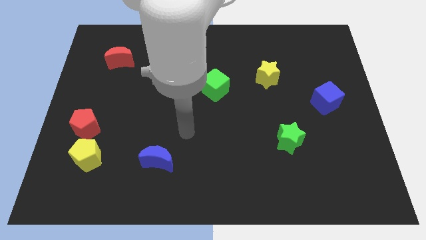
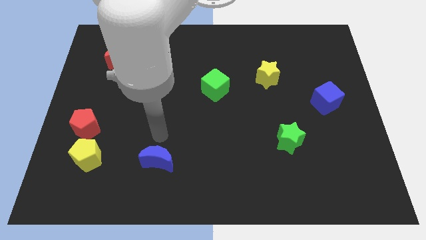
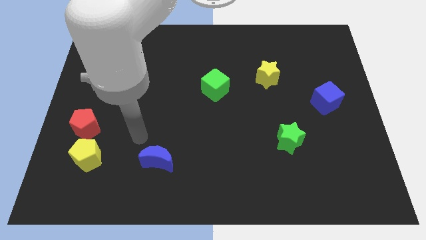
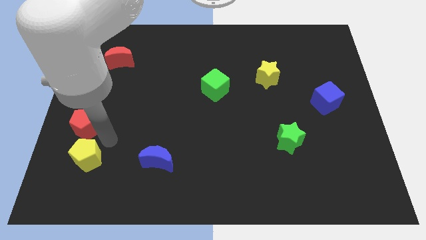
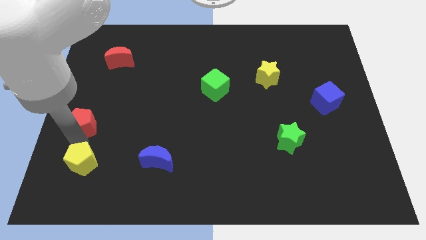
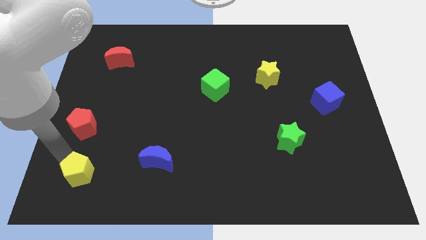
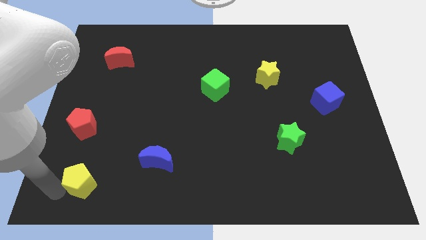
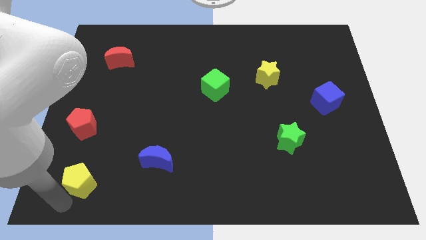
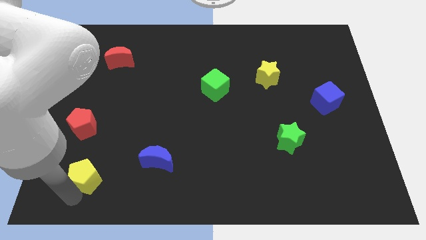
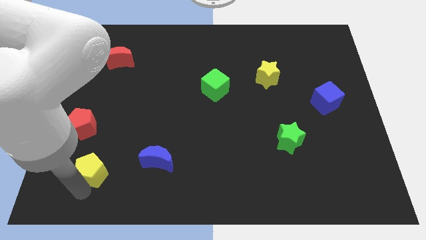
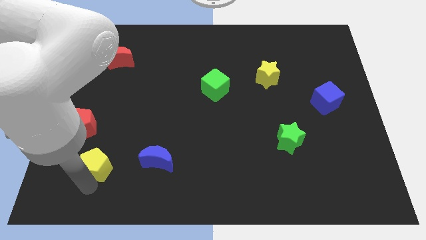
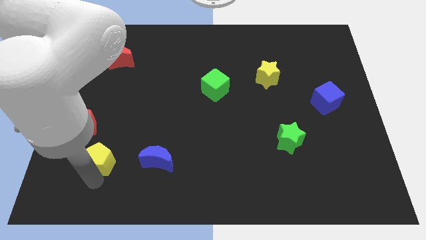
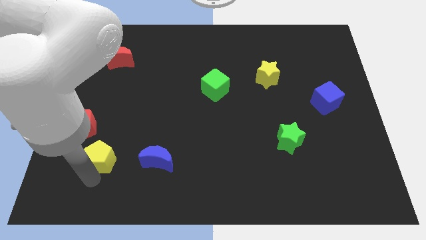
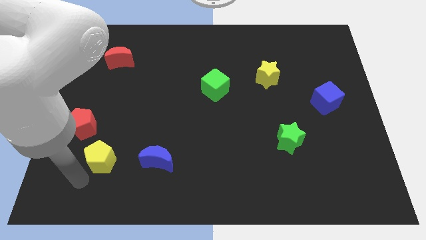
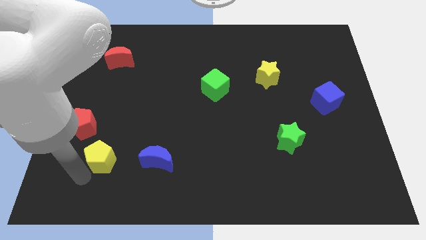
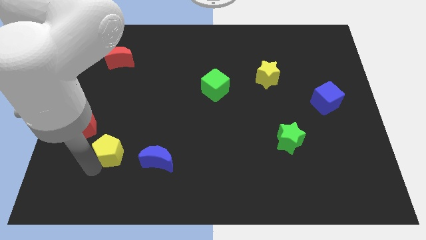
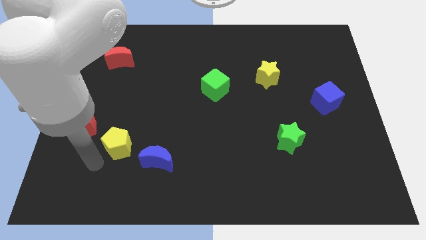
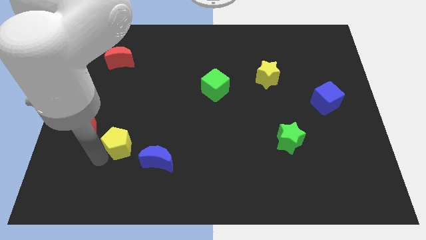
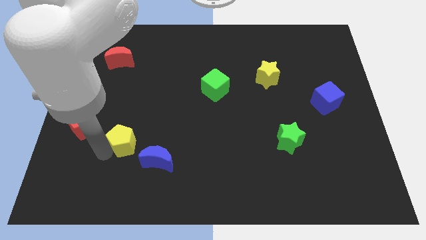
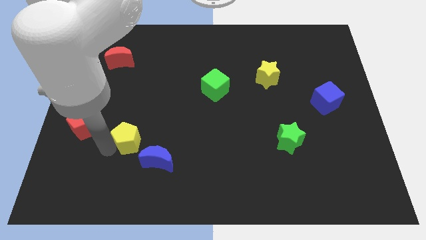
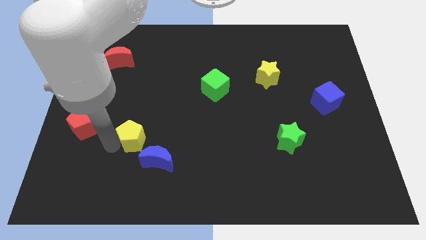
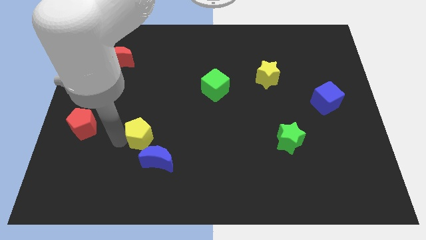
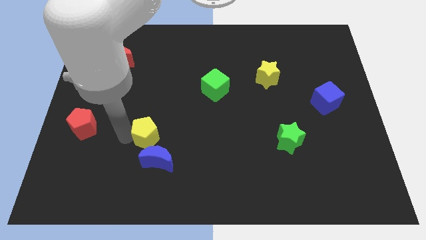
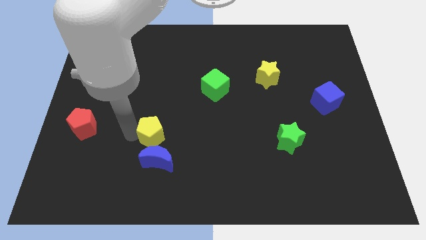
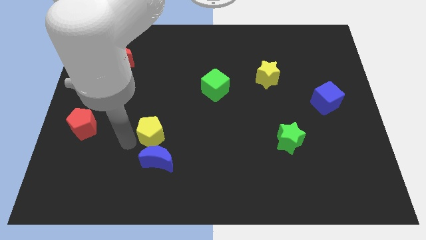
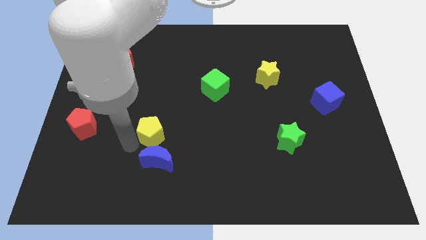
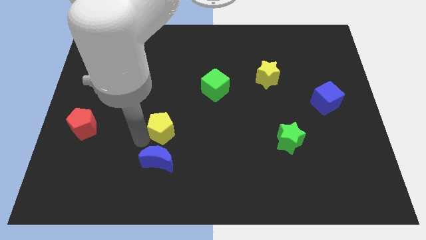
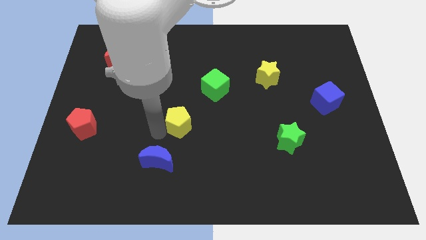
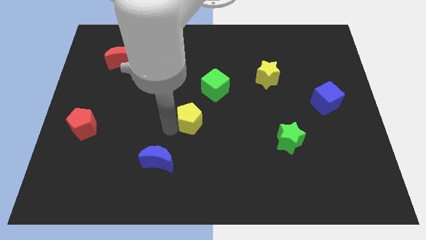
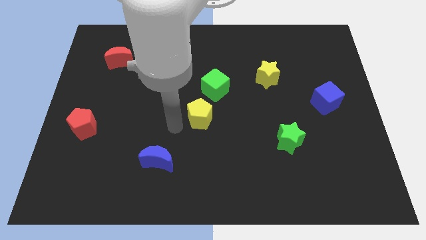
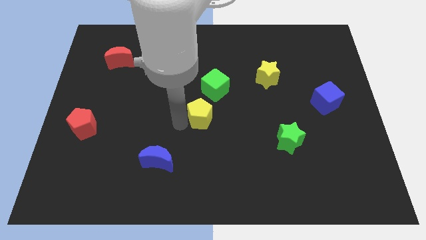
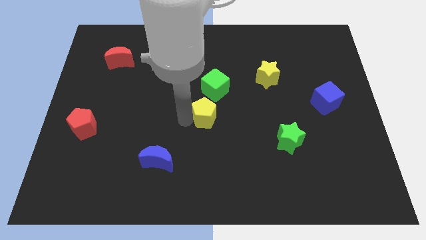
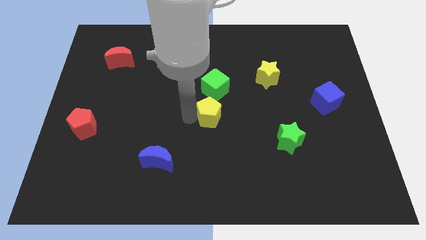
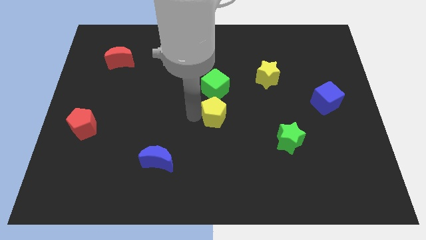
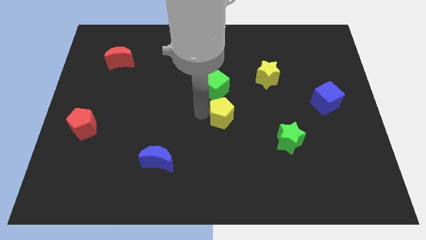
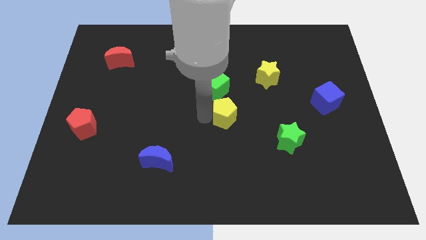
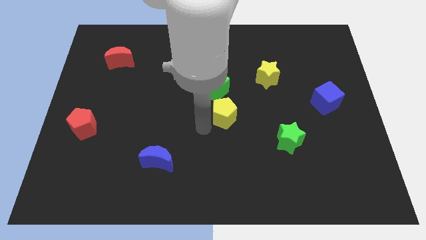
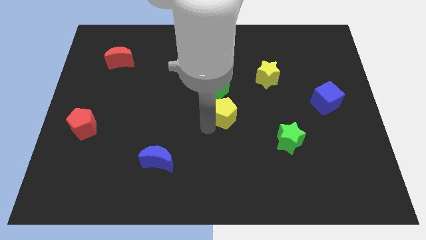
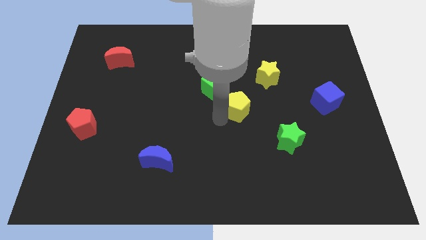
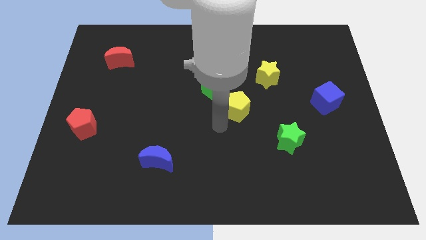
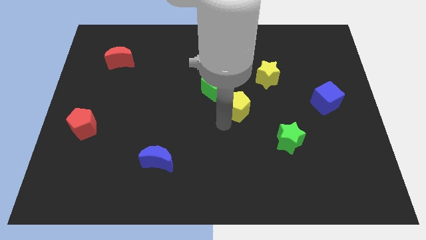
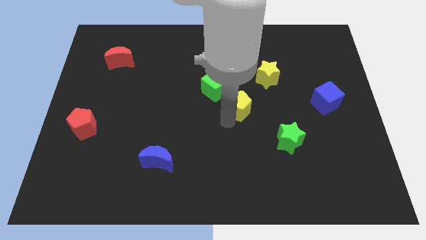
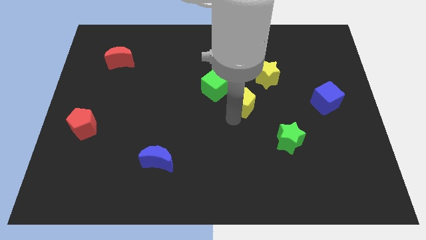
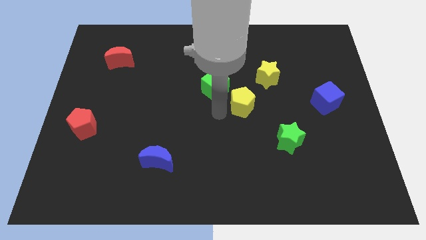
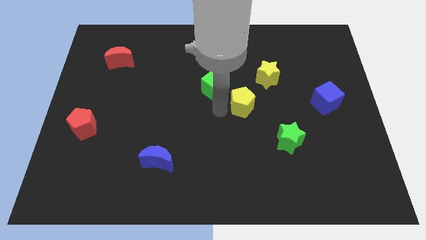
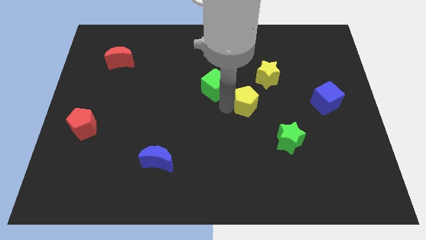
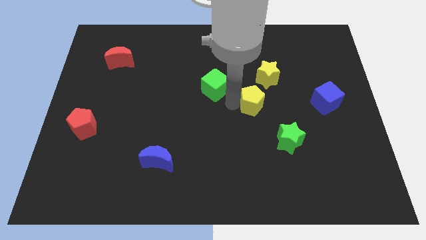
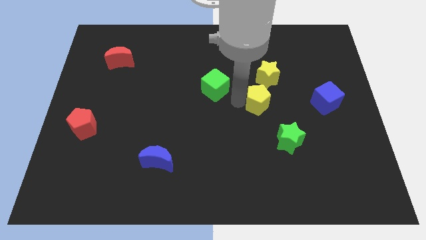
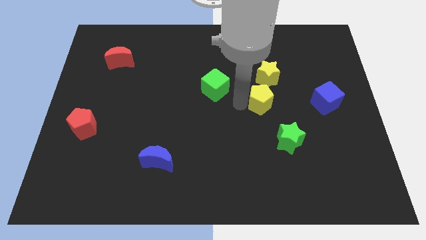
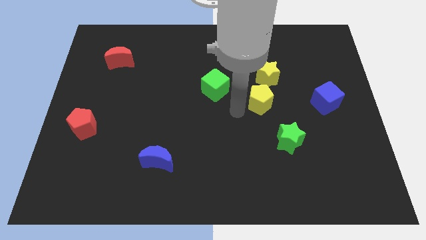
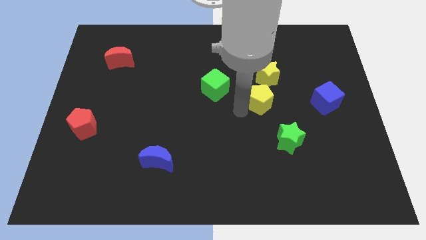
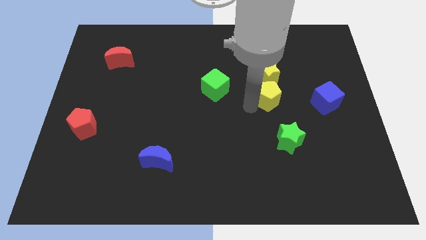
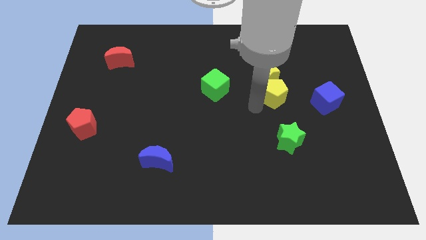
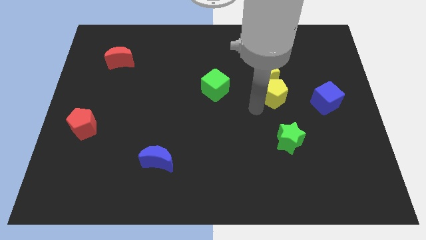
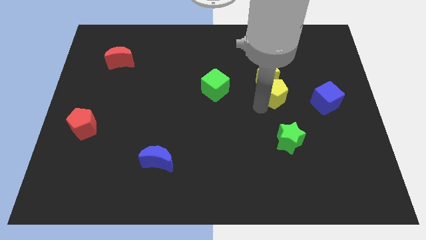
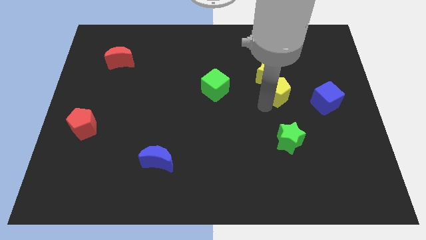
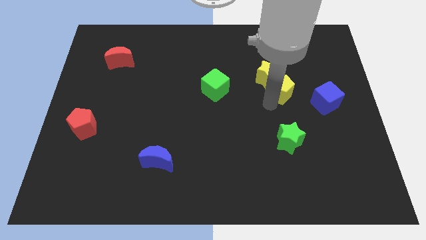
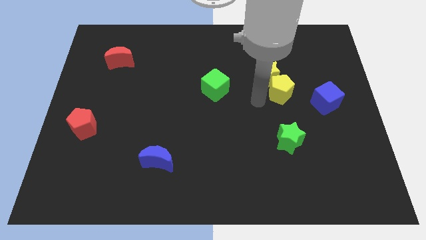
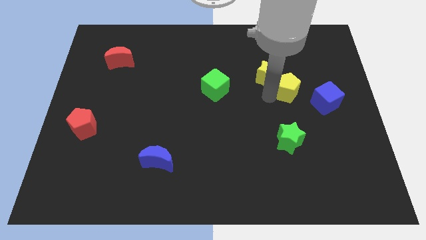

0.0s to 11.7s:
push the yellow pentagon to the top left of the blue cube

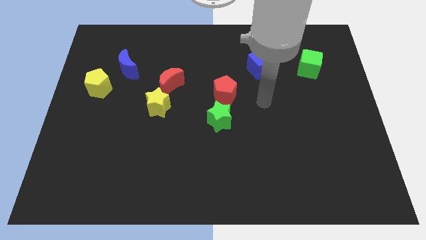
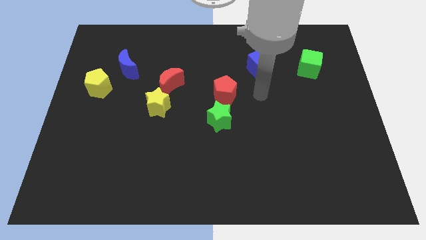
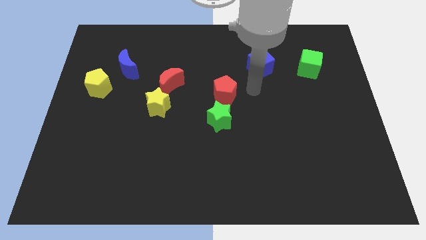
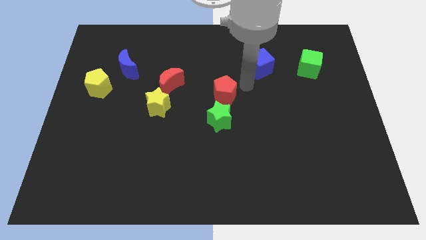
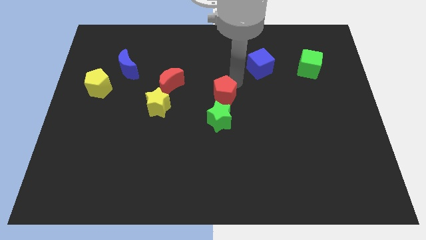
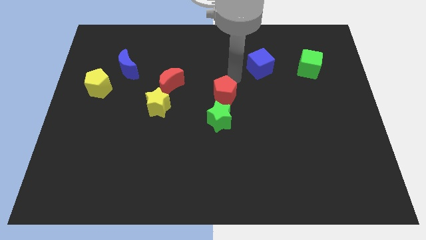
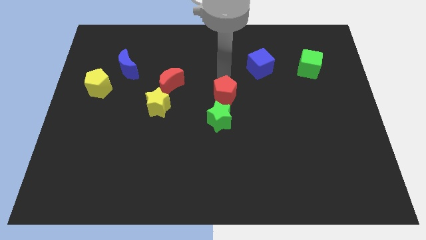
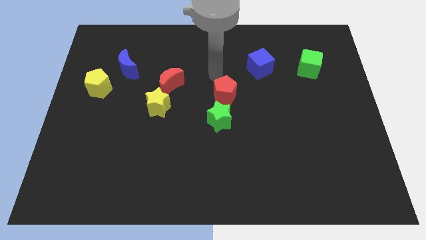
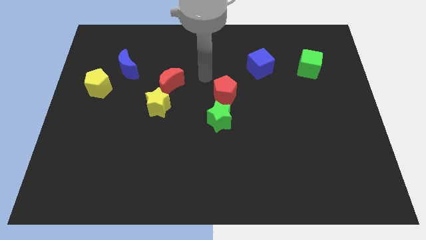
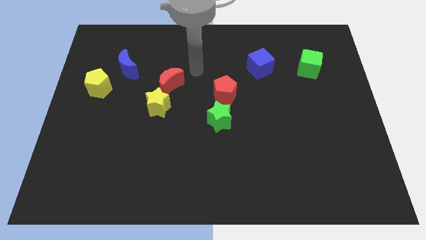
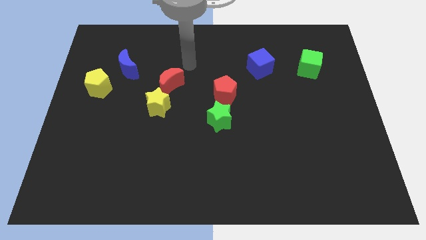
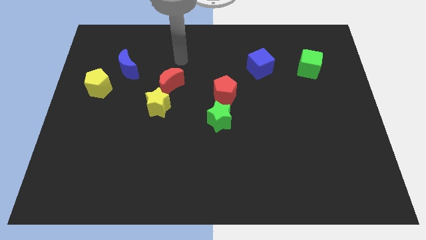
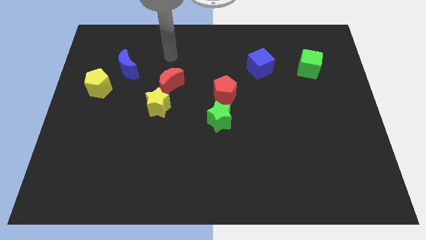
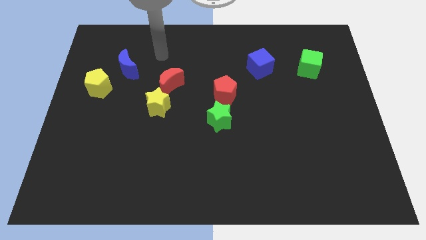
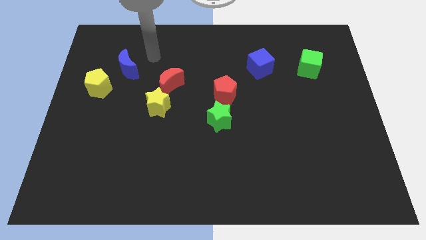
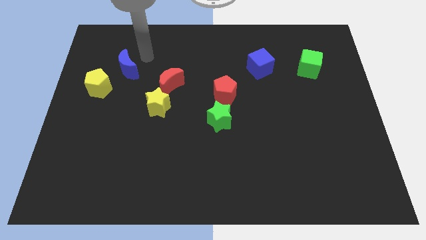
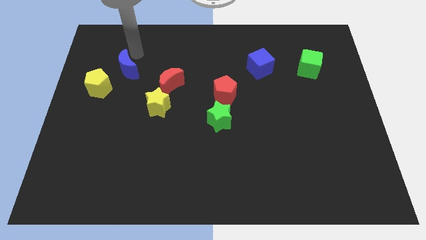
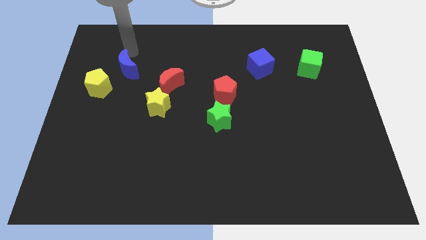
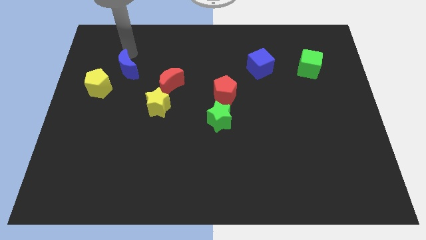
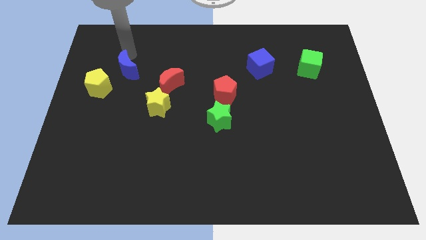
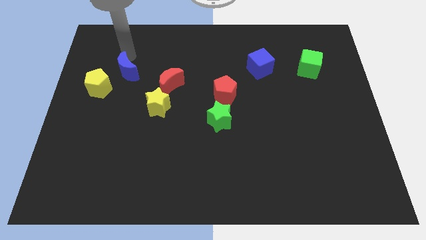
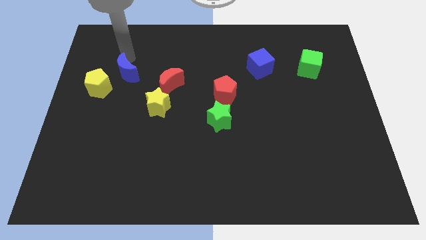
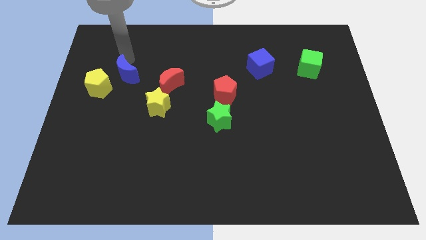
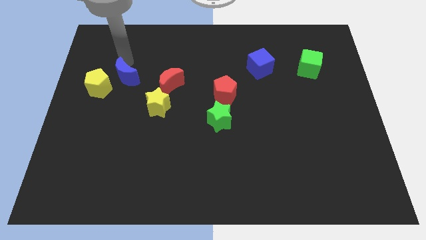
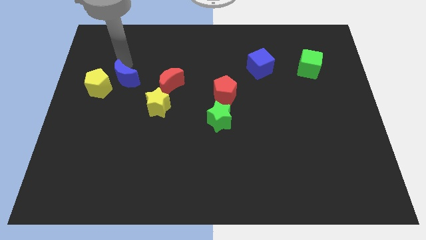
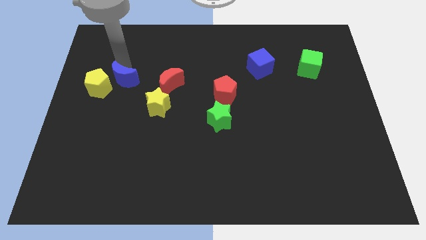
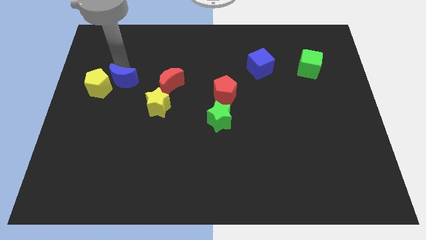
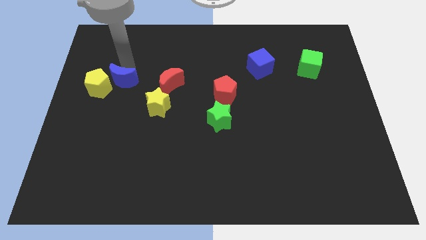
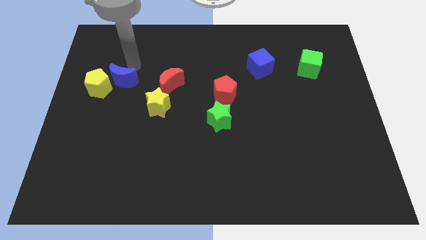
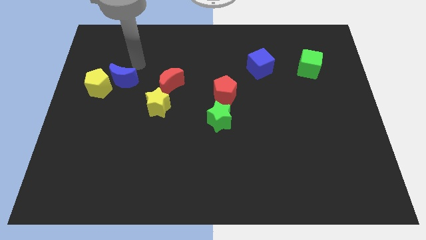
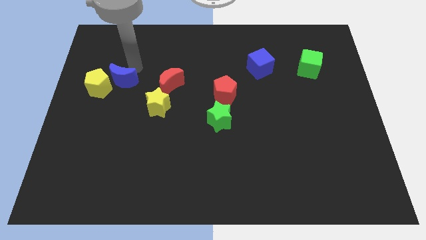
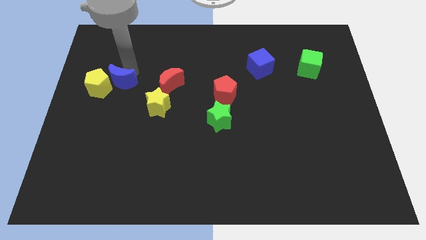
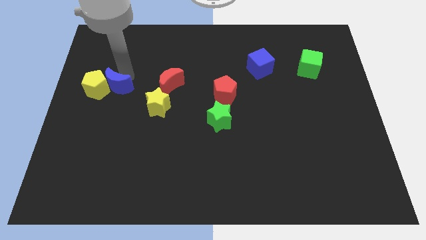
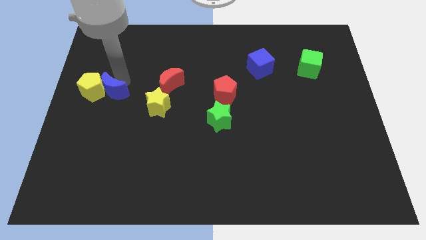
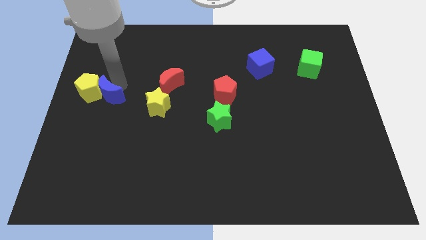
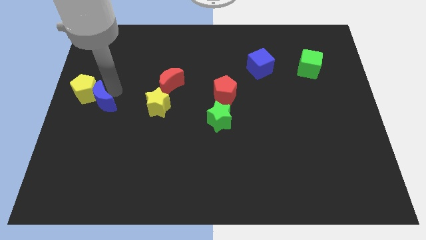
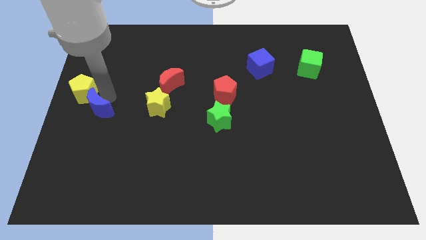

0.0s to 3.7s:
put the blue moon to the bottom of the yellow pentagon
